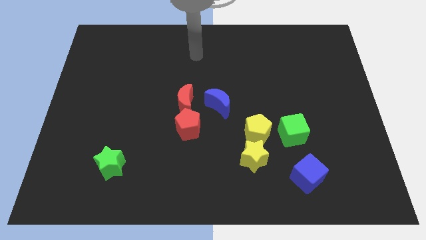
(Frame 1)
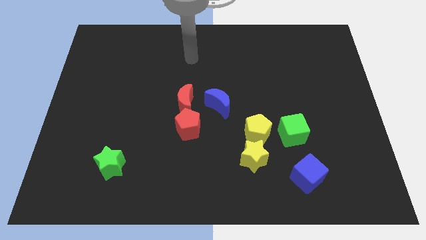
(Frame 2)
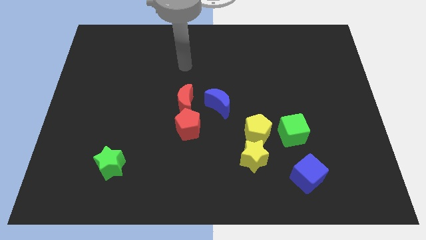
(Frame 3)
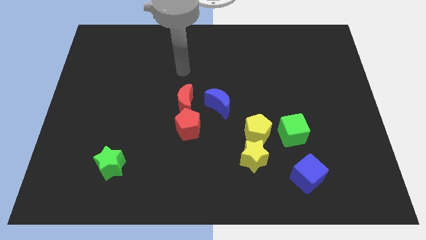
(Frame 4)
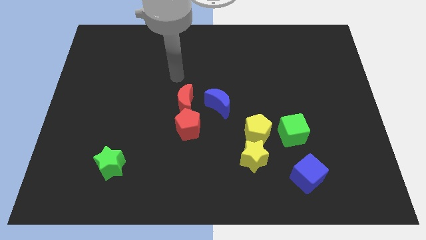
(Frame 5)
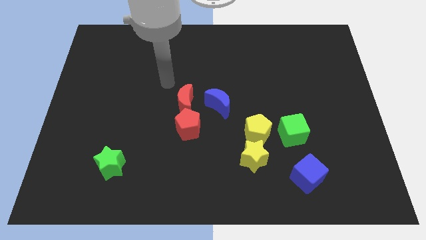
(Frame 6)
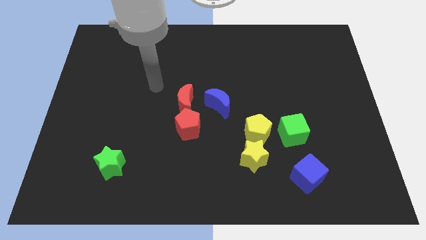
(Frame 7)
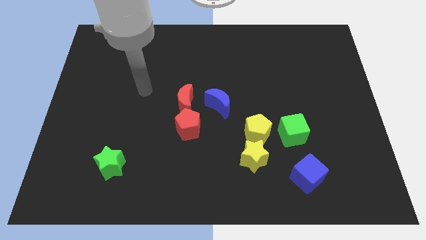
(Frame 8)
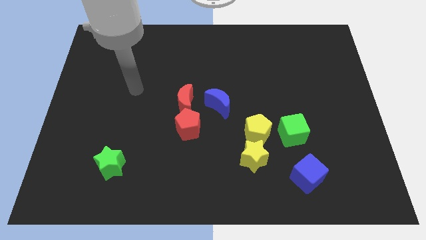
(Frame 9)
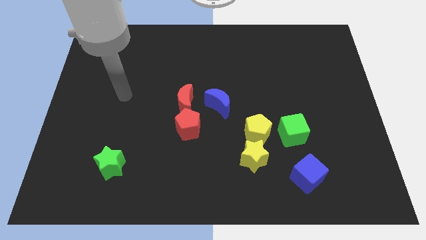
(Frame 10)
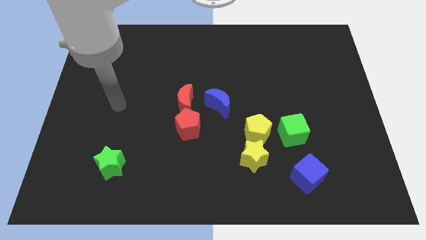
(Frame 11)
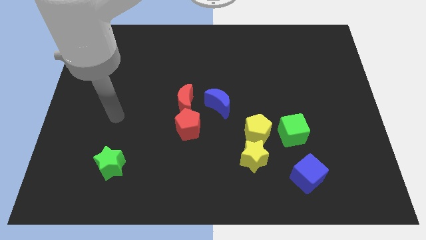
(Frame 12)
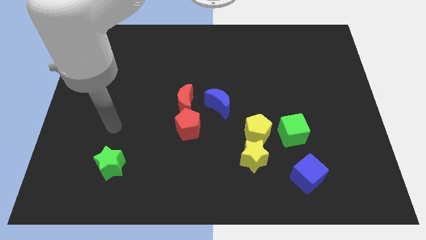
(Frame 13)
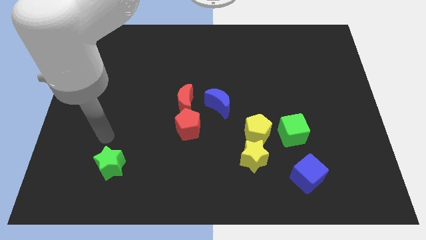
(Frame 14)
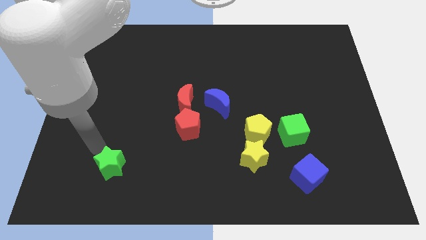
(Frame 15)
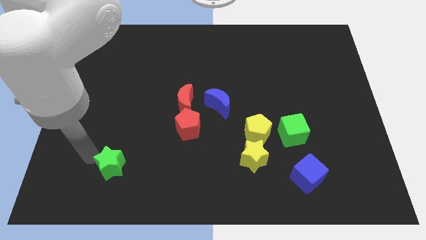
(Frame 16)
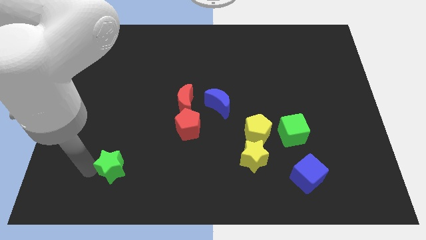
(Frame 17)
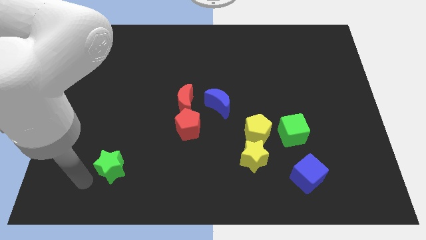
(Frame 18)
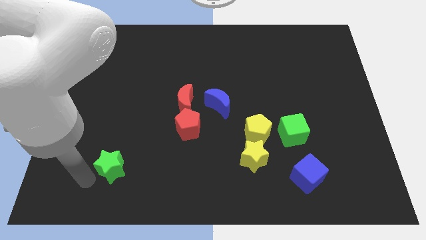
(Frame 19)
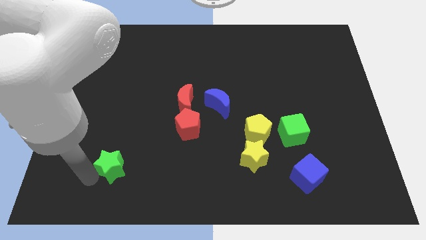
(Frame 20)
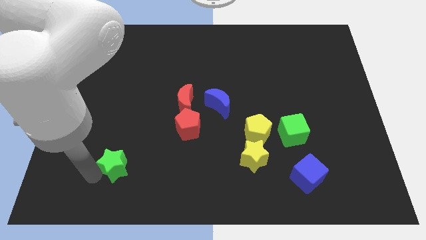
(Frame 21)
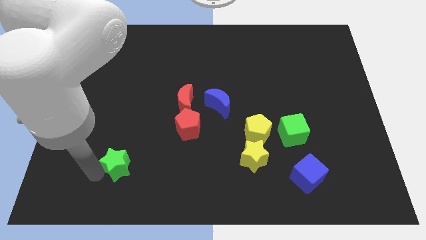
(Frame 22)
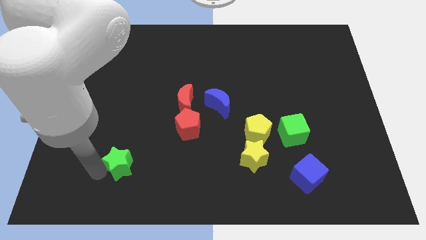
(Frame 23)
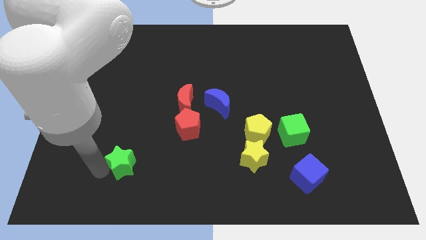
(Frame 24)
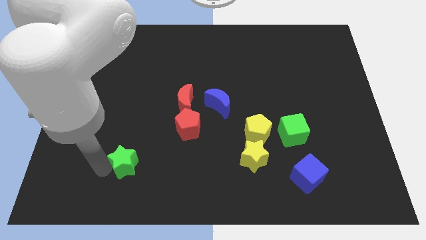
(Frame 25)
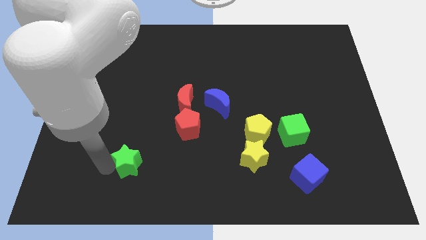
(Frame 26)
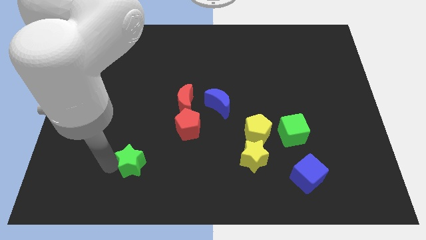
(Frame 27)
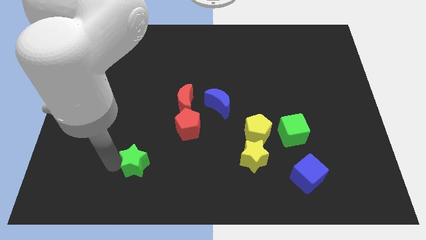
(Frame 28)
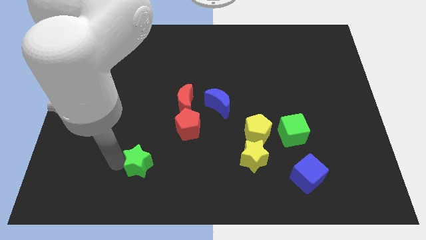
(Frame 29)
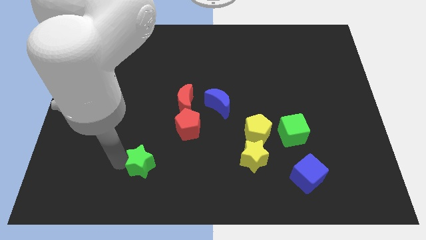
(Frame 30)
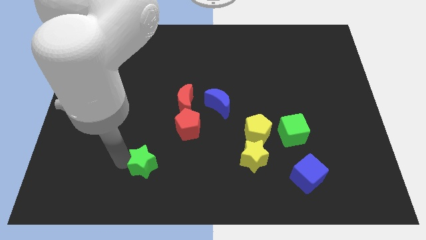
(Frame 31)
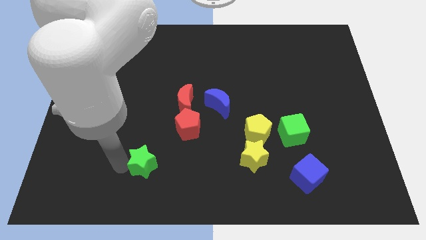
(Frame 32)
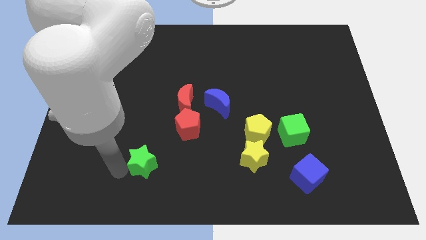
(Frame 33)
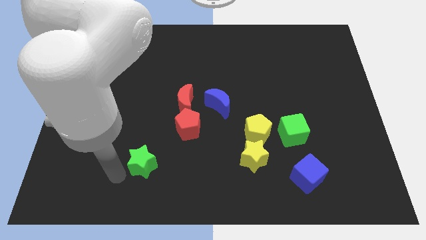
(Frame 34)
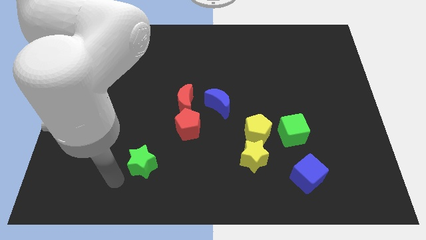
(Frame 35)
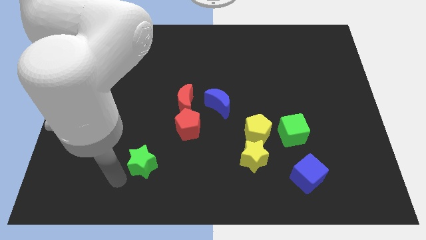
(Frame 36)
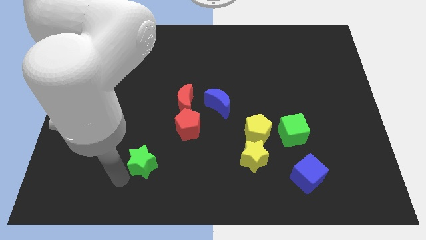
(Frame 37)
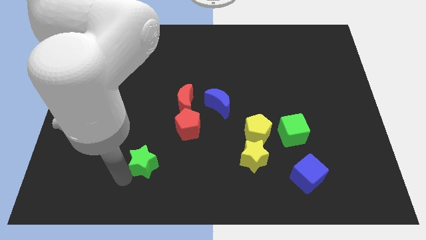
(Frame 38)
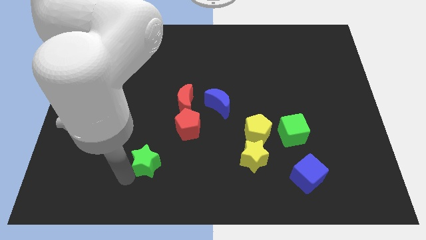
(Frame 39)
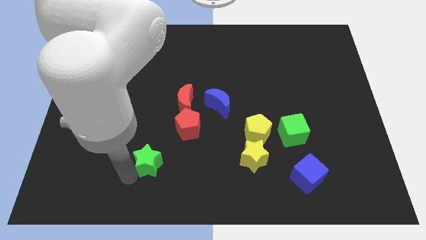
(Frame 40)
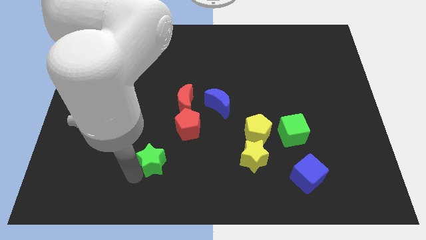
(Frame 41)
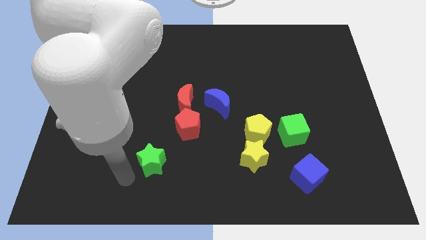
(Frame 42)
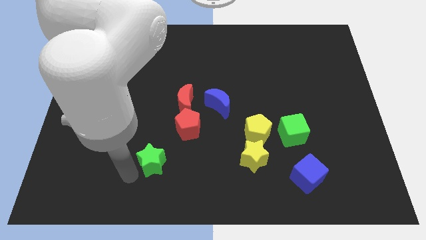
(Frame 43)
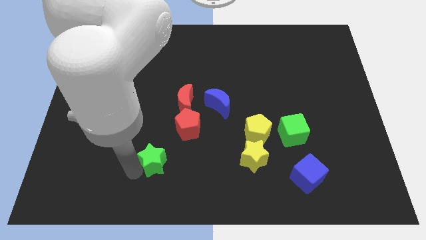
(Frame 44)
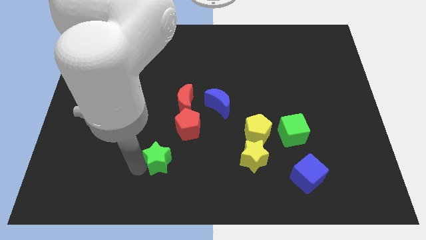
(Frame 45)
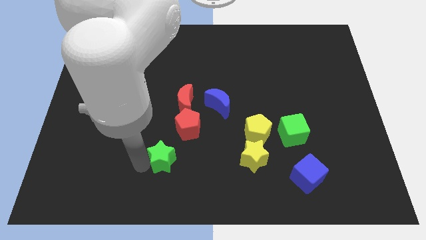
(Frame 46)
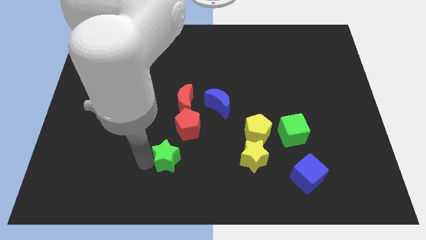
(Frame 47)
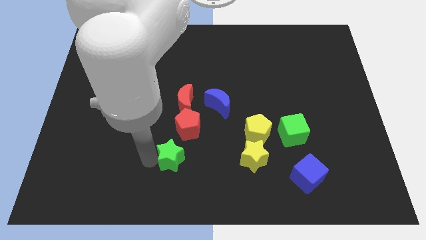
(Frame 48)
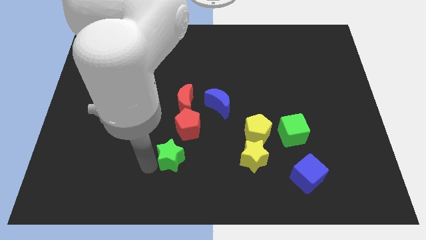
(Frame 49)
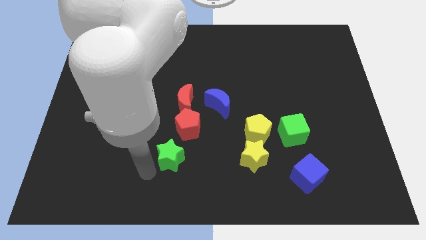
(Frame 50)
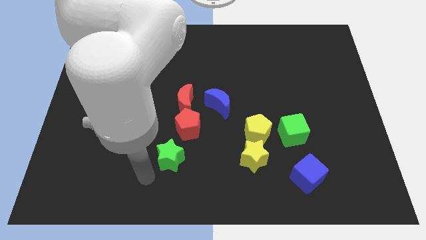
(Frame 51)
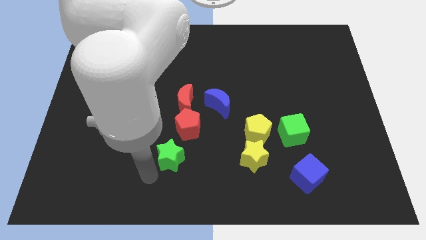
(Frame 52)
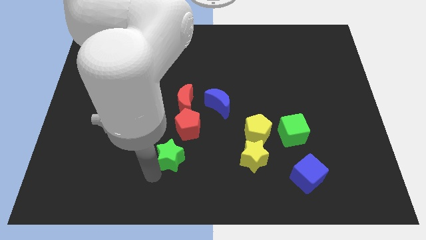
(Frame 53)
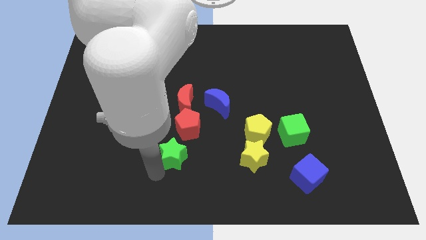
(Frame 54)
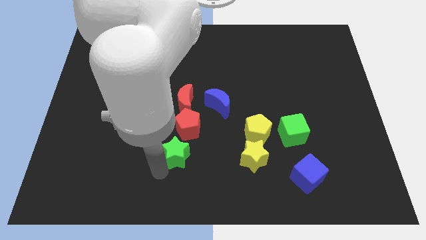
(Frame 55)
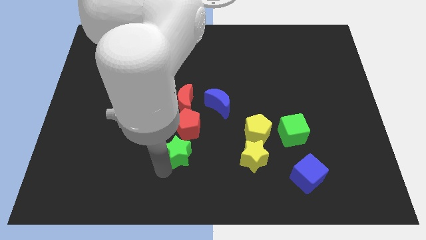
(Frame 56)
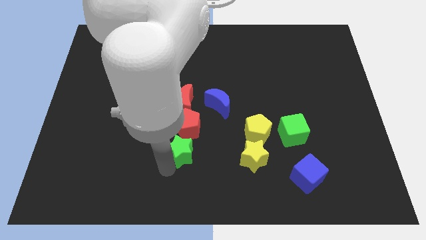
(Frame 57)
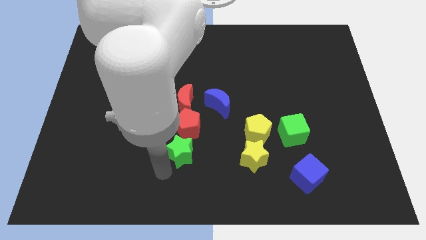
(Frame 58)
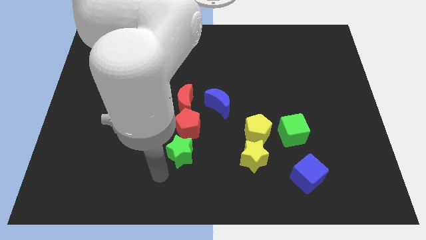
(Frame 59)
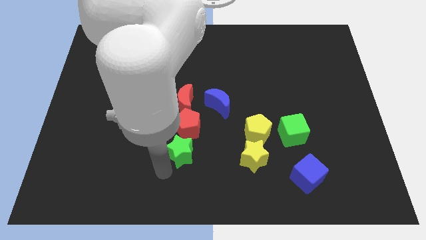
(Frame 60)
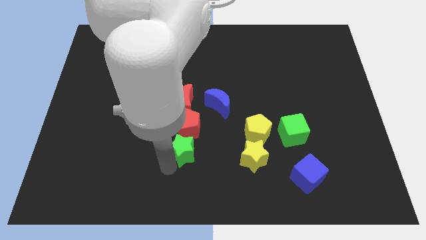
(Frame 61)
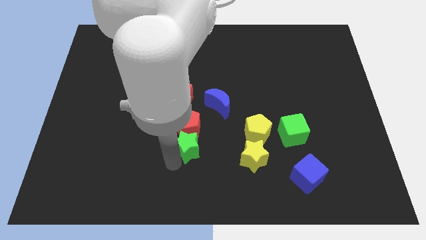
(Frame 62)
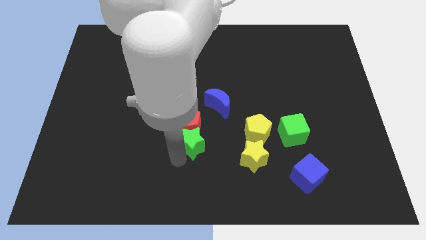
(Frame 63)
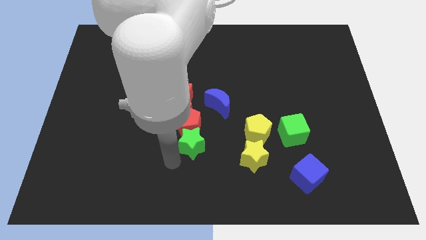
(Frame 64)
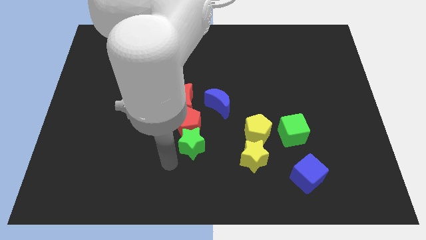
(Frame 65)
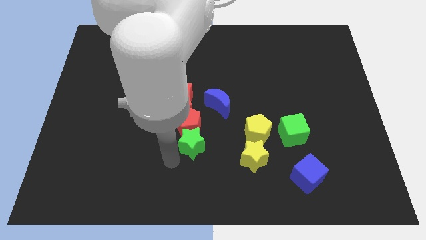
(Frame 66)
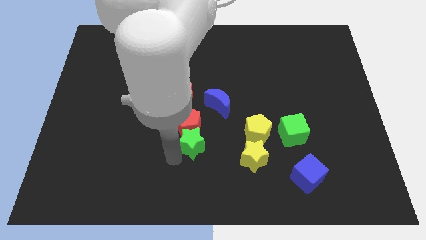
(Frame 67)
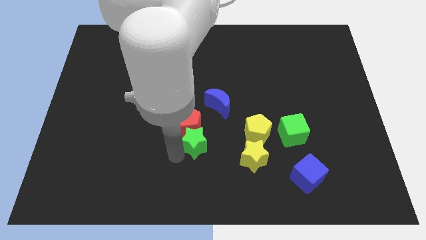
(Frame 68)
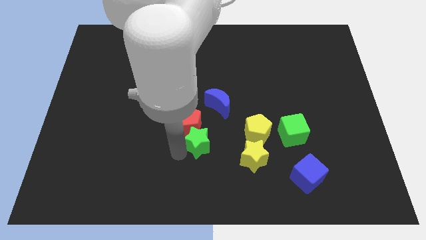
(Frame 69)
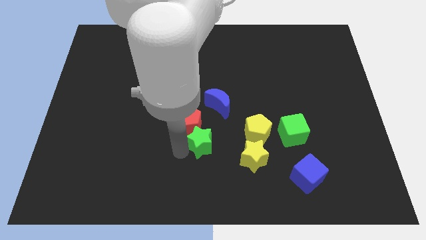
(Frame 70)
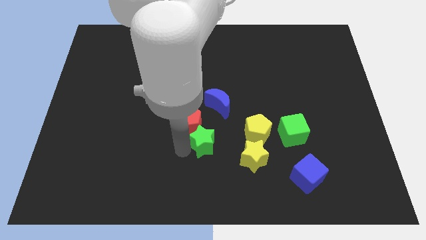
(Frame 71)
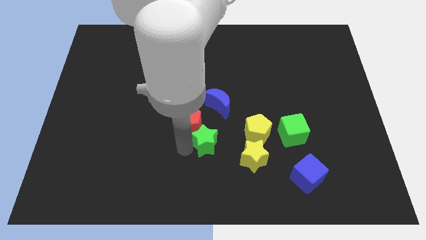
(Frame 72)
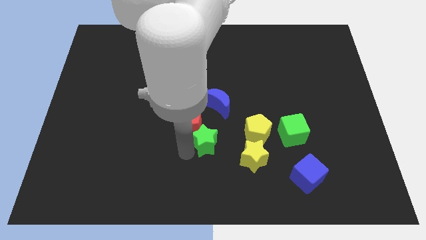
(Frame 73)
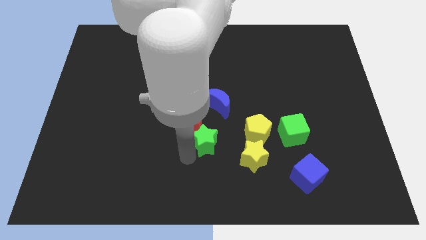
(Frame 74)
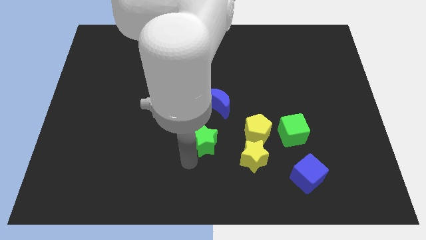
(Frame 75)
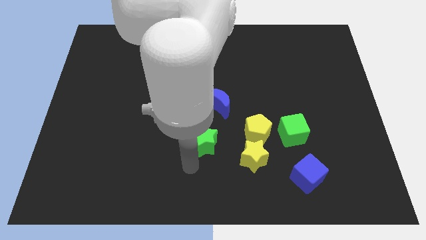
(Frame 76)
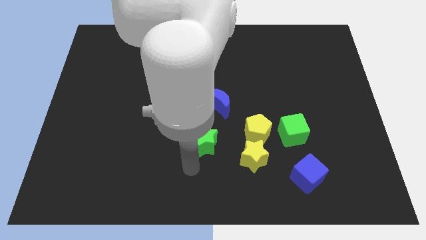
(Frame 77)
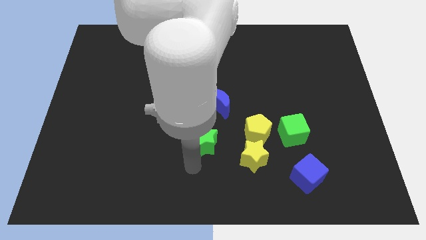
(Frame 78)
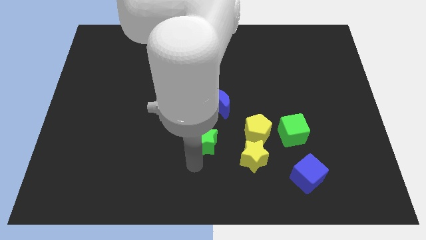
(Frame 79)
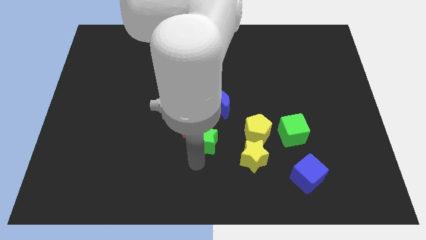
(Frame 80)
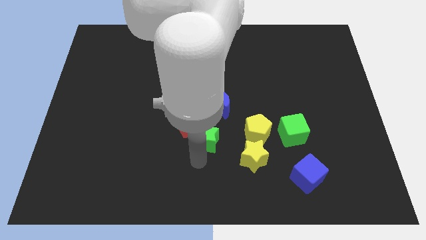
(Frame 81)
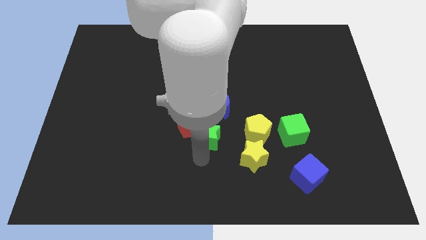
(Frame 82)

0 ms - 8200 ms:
put the green star to the bottom right of the red moon

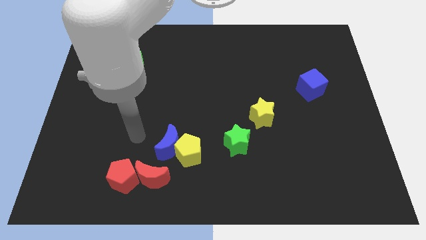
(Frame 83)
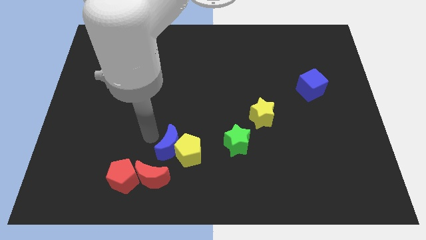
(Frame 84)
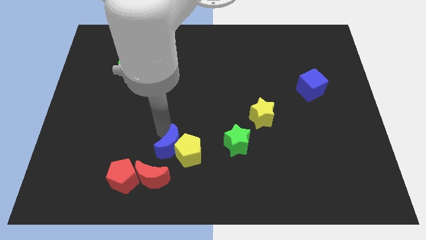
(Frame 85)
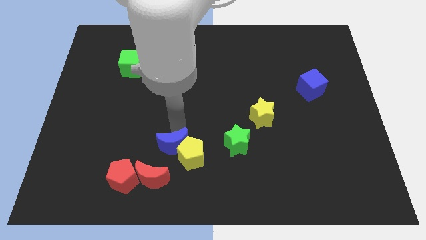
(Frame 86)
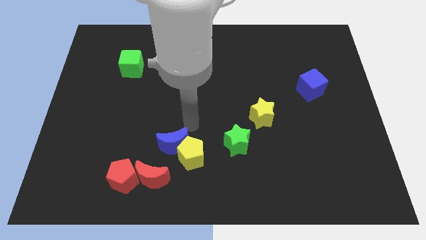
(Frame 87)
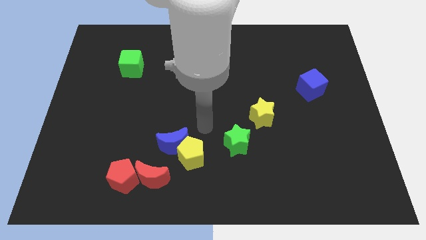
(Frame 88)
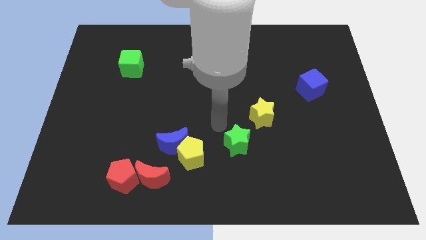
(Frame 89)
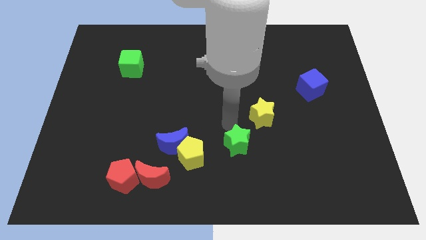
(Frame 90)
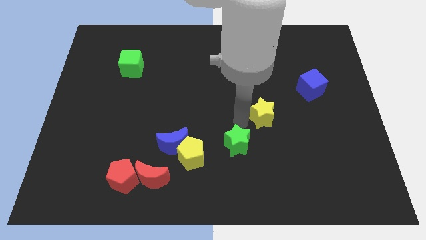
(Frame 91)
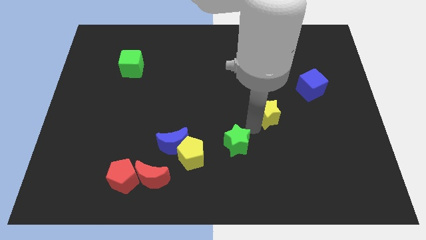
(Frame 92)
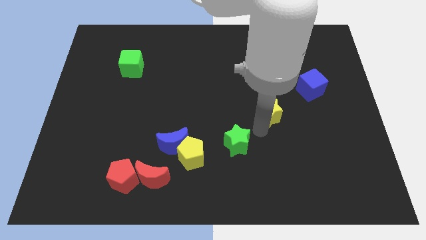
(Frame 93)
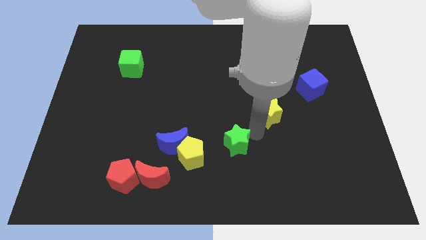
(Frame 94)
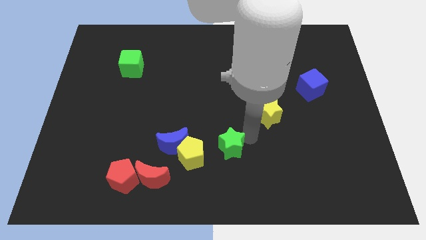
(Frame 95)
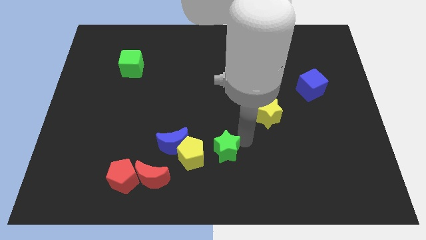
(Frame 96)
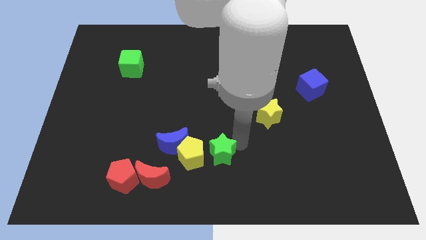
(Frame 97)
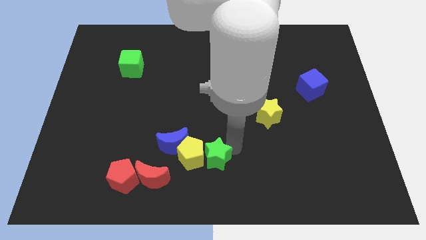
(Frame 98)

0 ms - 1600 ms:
move the green star to the bottom right side of the blue moon
